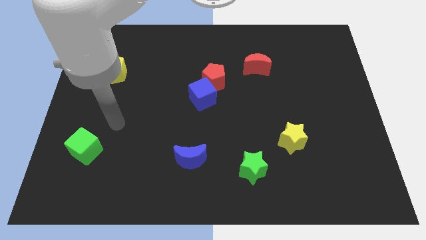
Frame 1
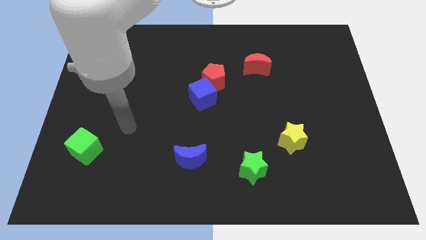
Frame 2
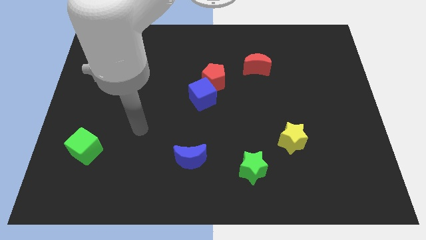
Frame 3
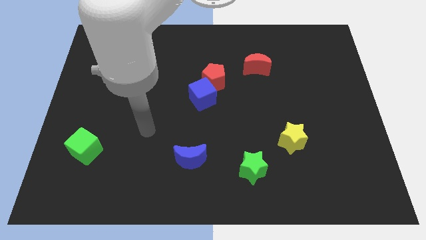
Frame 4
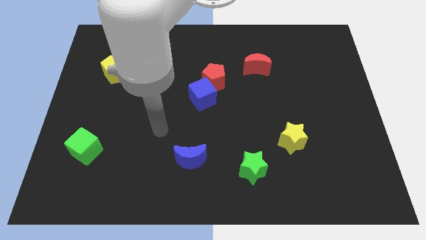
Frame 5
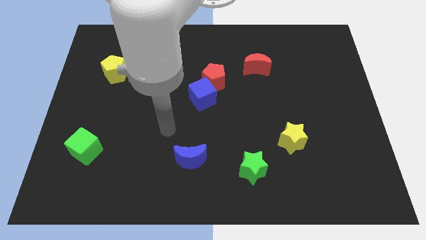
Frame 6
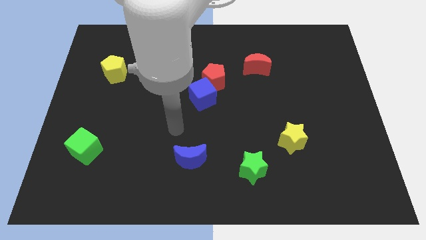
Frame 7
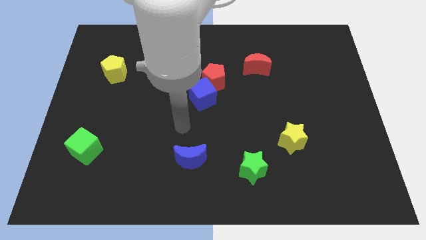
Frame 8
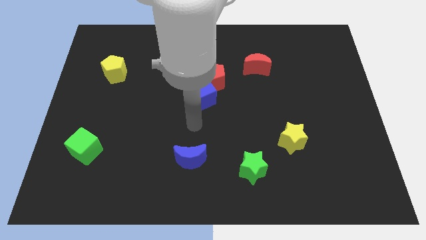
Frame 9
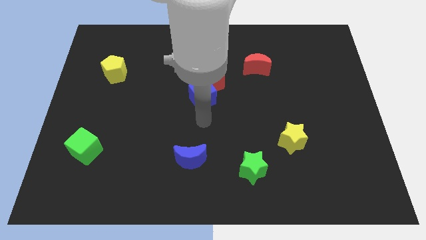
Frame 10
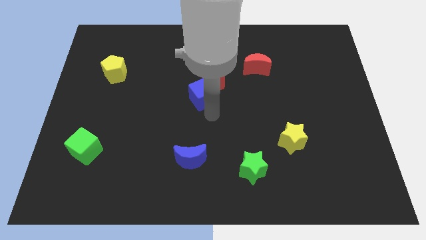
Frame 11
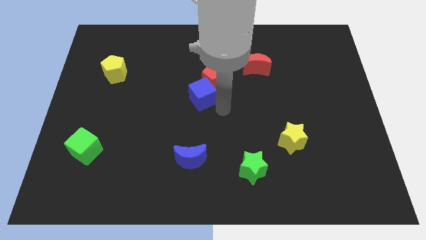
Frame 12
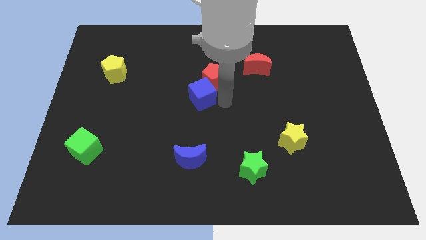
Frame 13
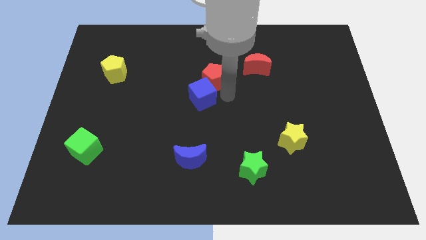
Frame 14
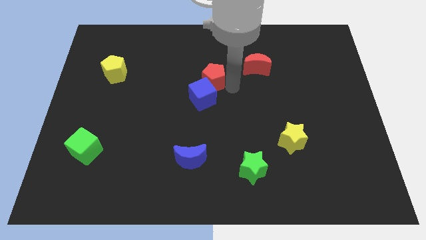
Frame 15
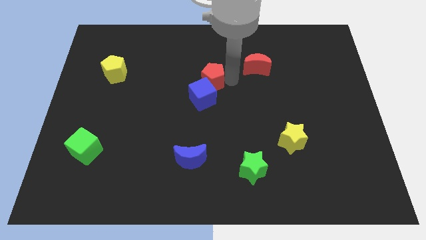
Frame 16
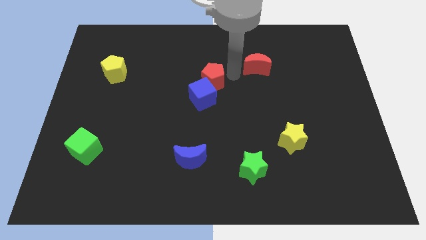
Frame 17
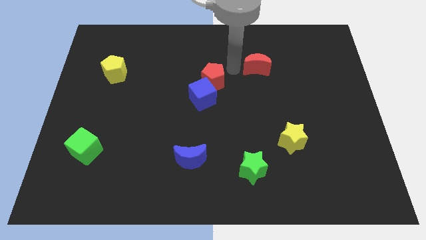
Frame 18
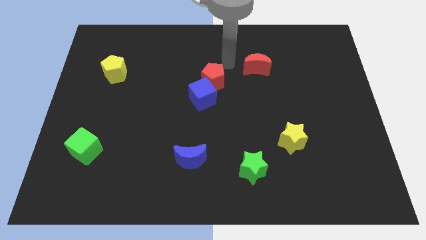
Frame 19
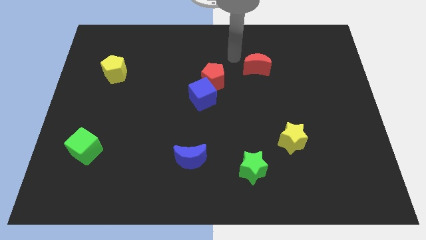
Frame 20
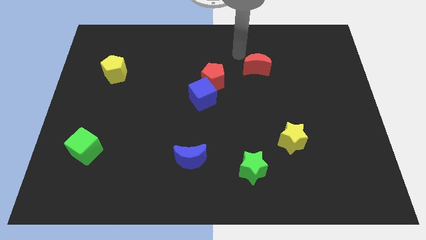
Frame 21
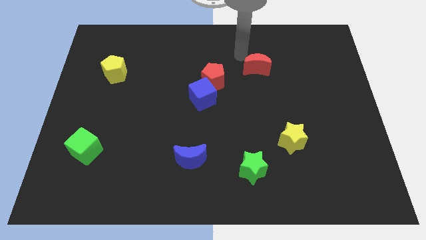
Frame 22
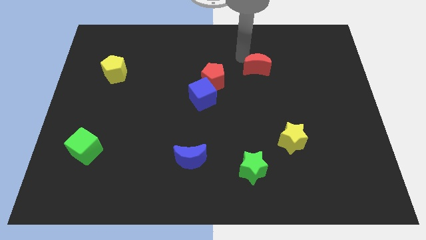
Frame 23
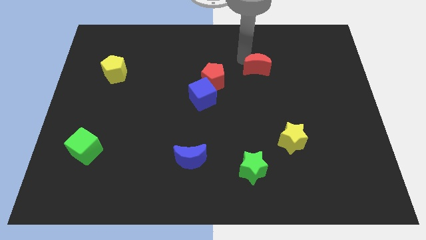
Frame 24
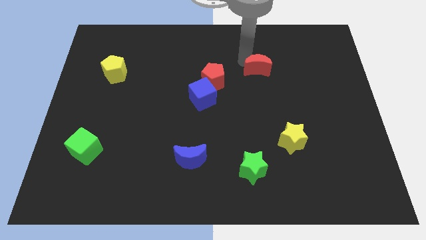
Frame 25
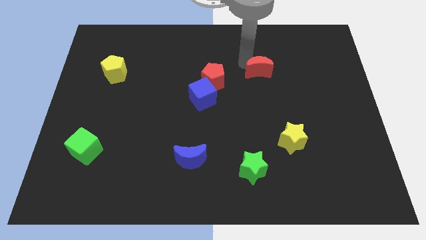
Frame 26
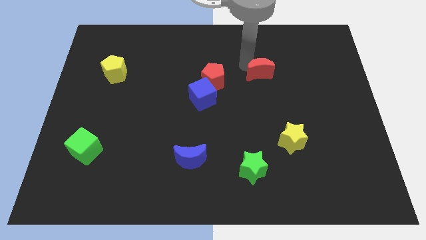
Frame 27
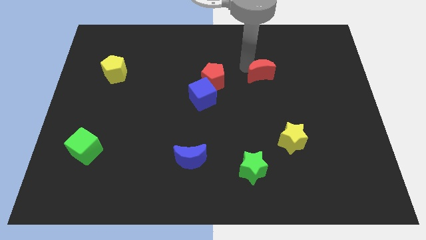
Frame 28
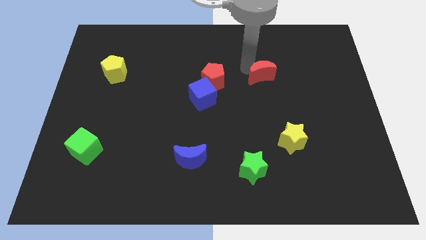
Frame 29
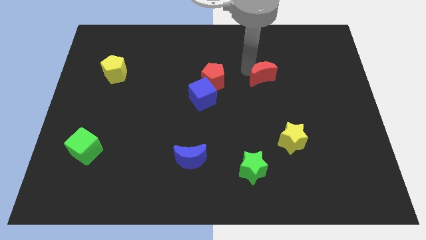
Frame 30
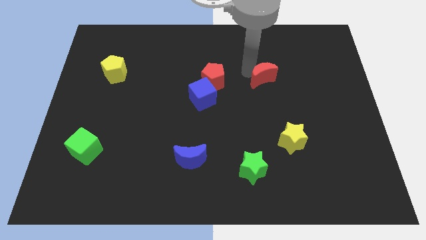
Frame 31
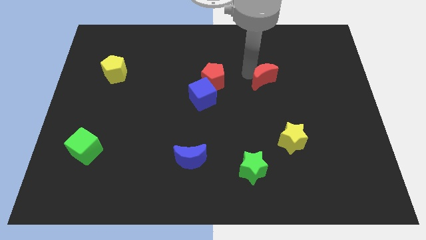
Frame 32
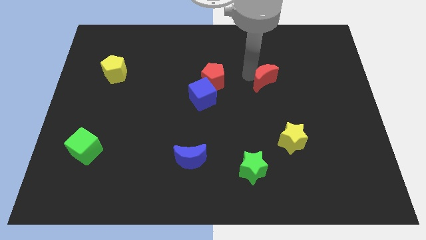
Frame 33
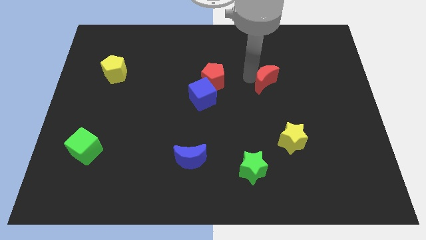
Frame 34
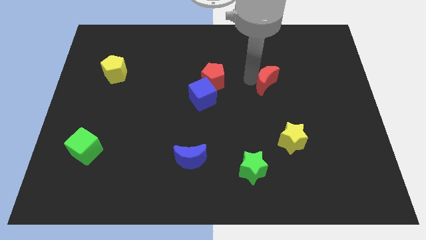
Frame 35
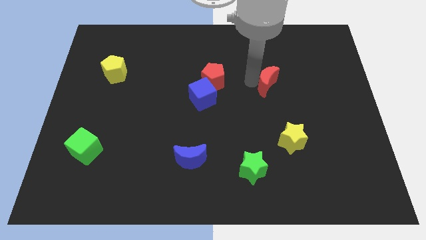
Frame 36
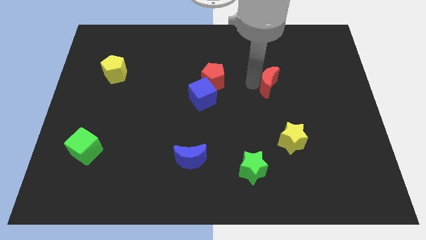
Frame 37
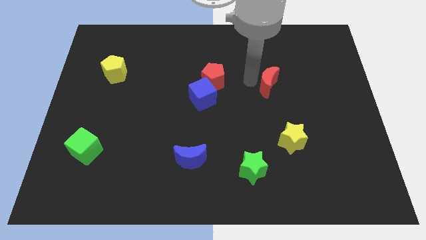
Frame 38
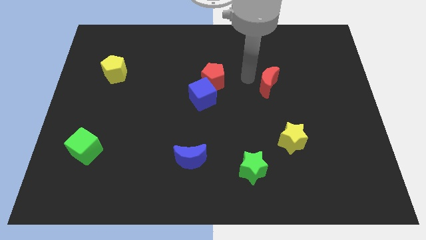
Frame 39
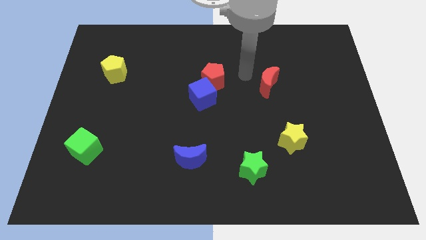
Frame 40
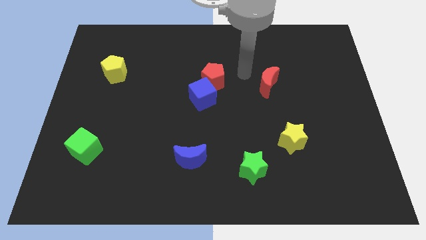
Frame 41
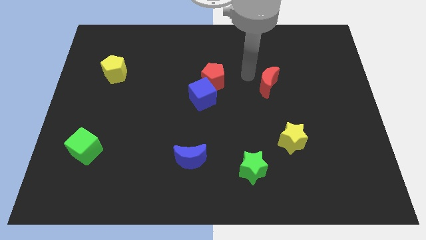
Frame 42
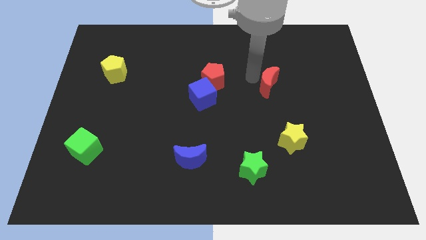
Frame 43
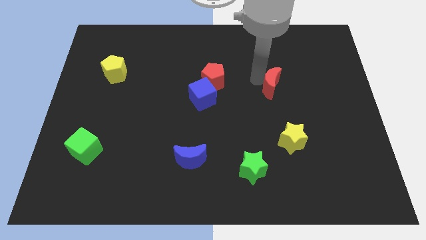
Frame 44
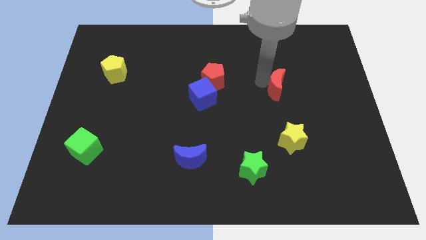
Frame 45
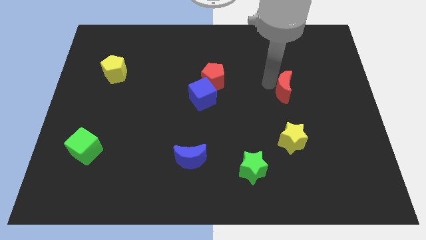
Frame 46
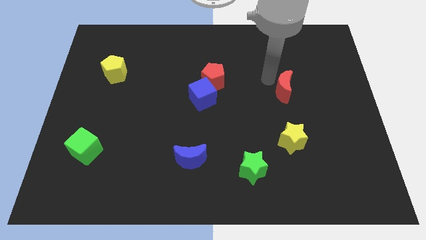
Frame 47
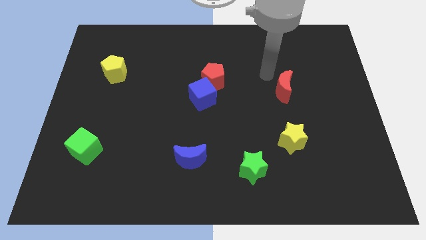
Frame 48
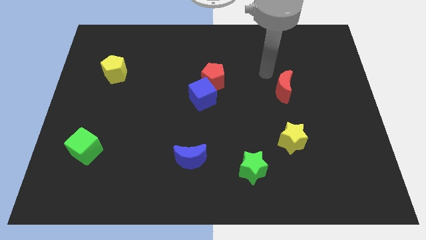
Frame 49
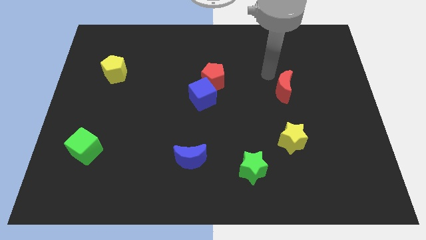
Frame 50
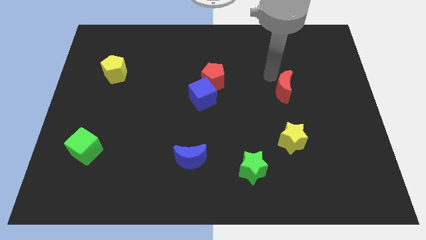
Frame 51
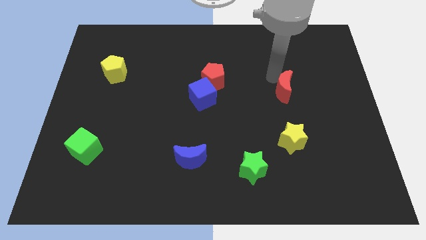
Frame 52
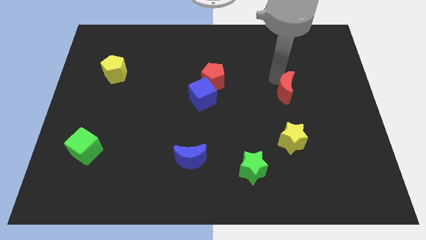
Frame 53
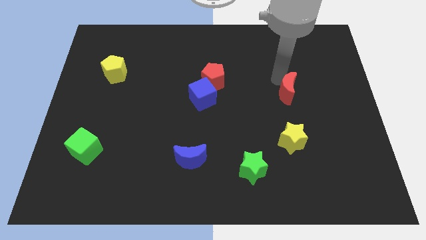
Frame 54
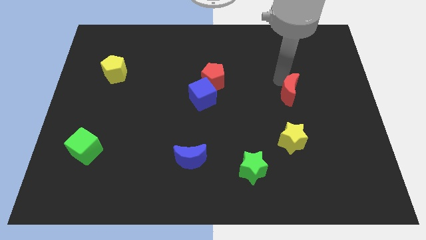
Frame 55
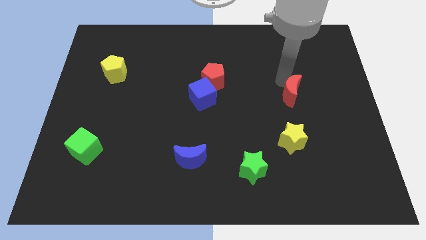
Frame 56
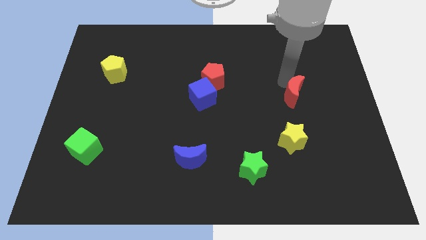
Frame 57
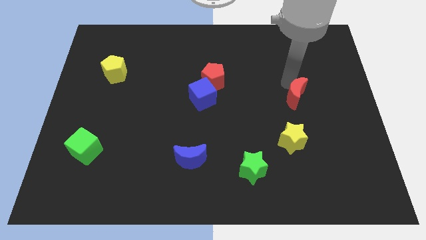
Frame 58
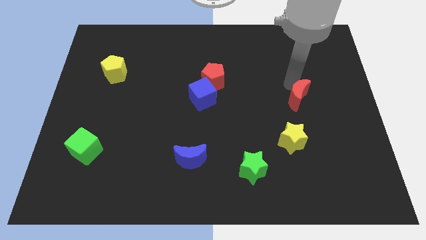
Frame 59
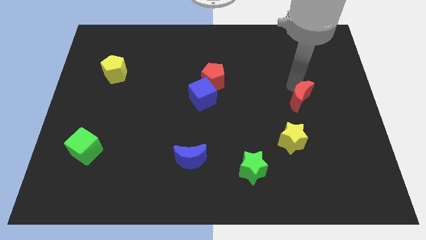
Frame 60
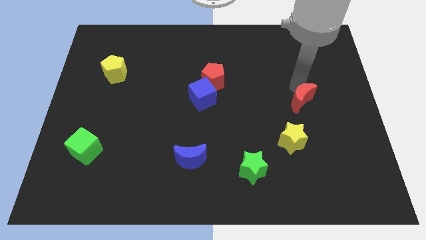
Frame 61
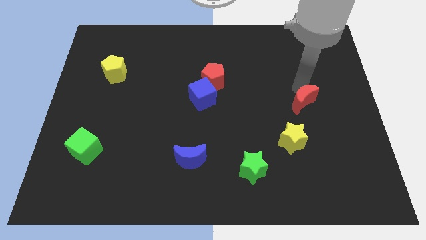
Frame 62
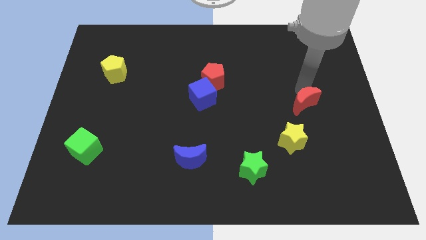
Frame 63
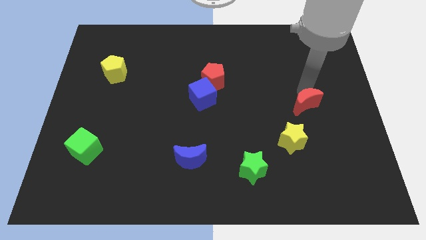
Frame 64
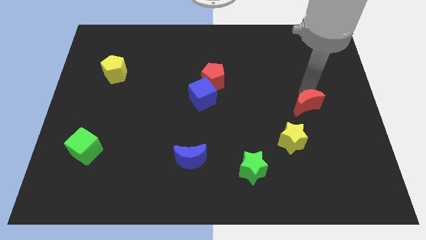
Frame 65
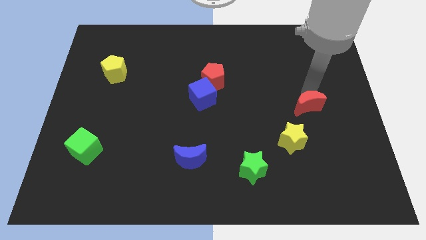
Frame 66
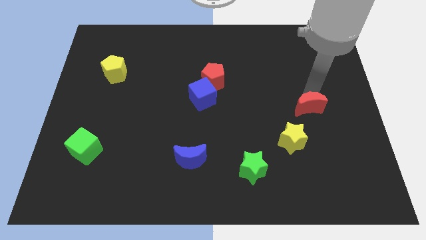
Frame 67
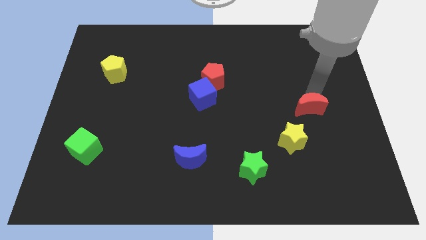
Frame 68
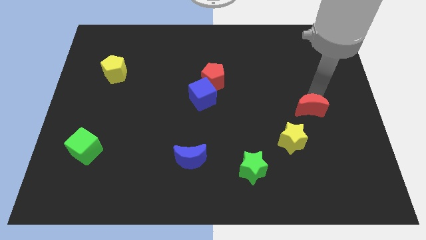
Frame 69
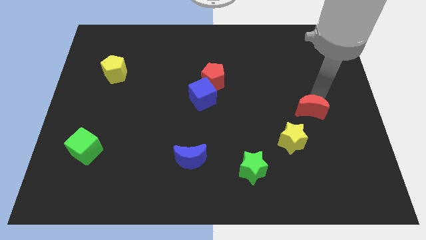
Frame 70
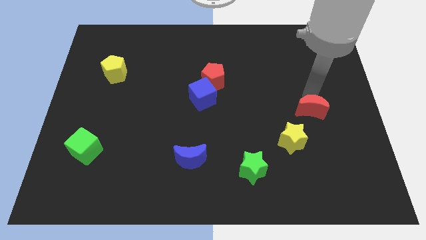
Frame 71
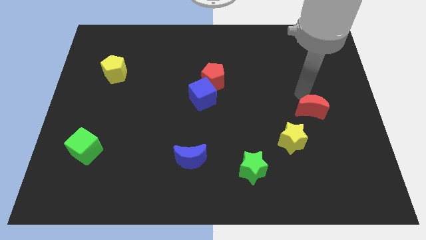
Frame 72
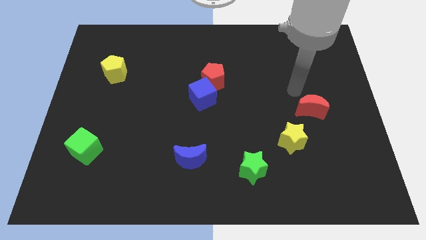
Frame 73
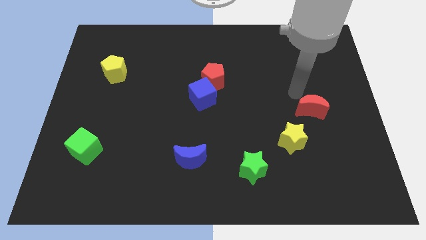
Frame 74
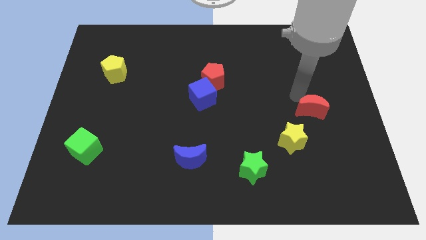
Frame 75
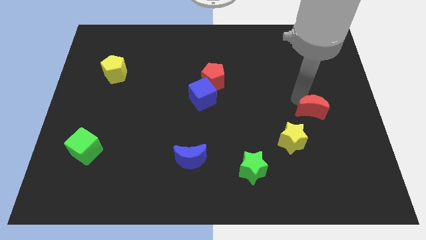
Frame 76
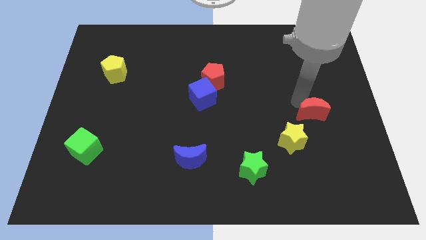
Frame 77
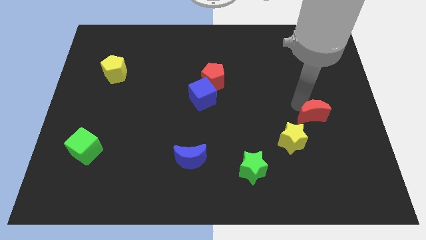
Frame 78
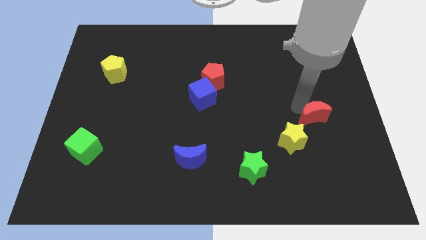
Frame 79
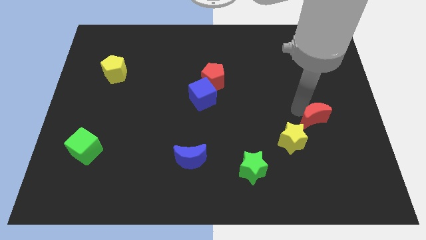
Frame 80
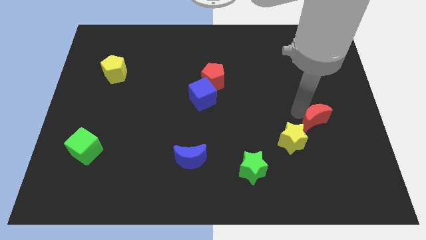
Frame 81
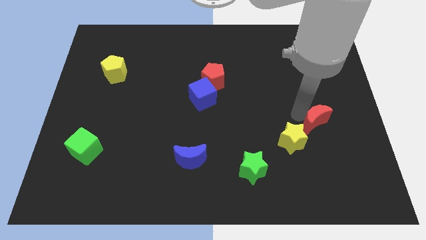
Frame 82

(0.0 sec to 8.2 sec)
put the red moon to the right side of the yellow star
